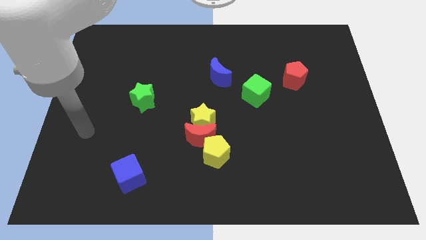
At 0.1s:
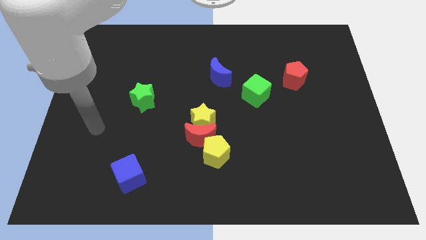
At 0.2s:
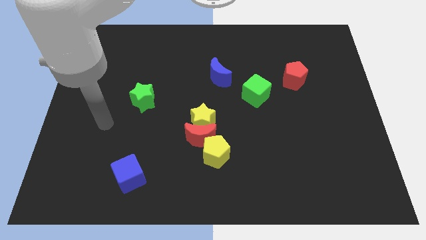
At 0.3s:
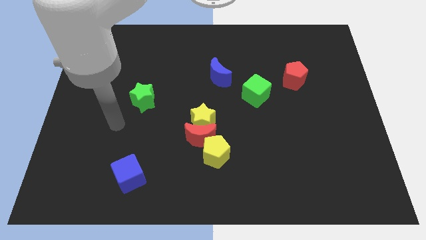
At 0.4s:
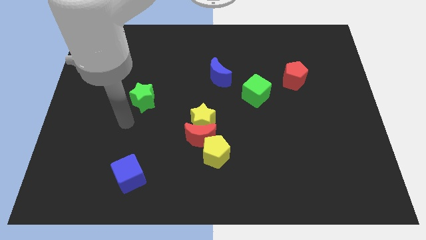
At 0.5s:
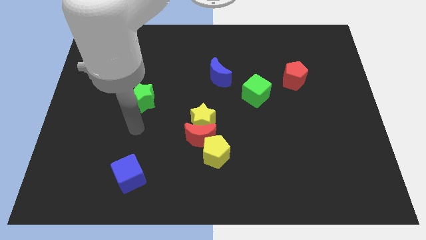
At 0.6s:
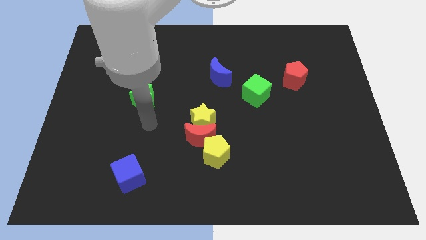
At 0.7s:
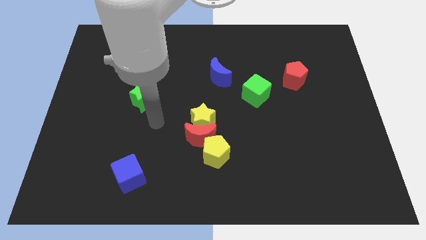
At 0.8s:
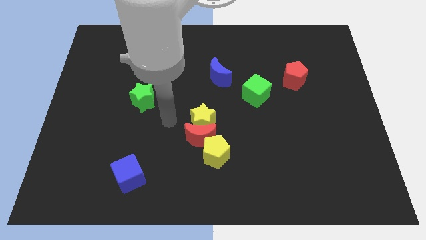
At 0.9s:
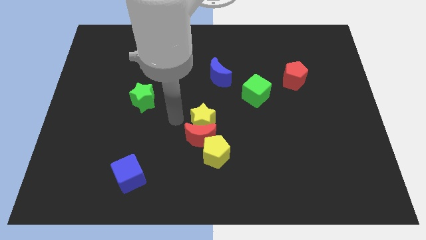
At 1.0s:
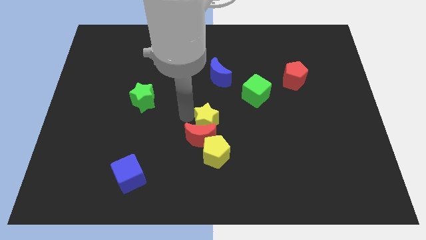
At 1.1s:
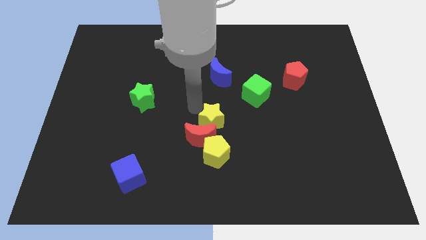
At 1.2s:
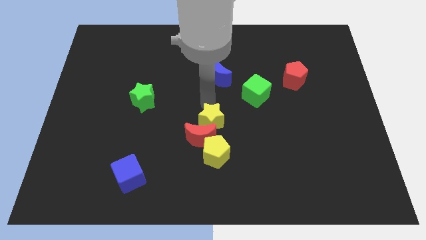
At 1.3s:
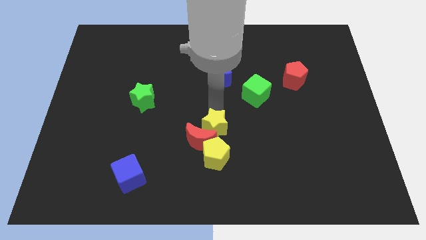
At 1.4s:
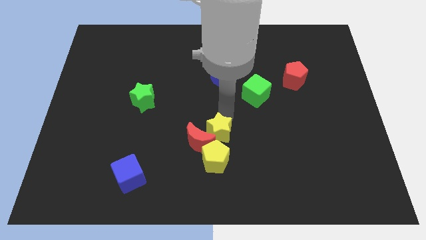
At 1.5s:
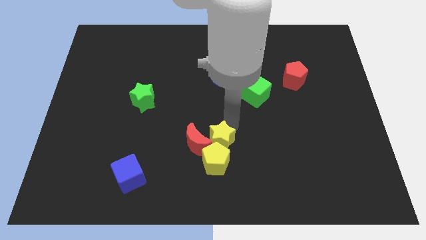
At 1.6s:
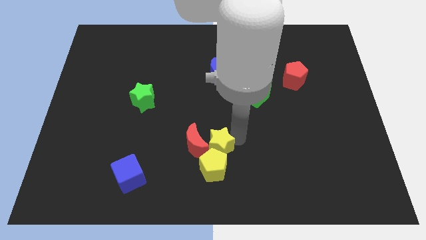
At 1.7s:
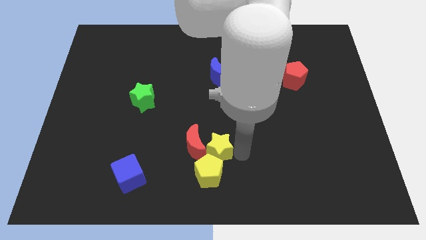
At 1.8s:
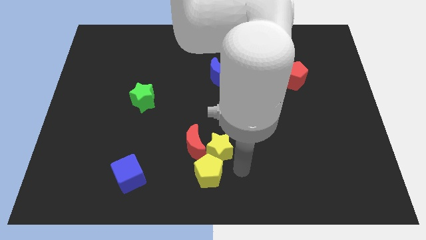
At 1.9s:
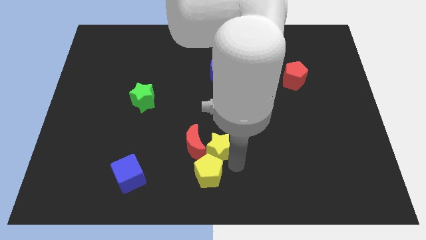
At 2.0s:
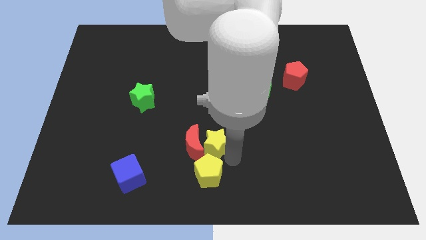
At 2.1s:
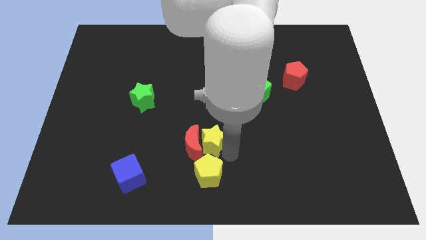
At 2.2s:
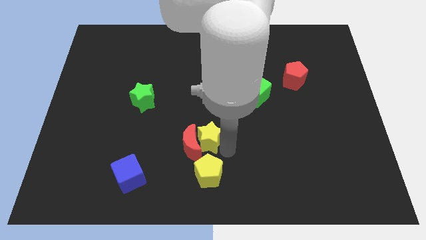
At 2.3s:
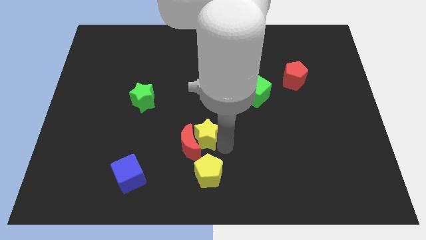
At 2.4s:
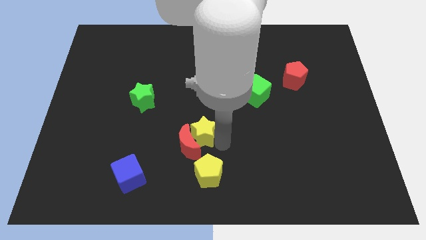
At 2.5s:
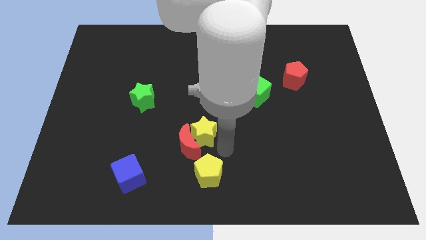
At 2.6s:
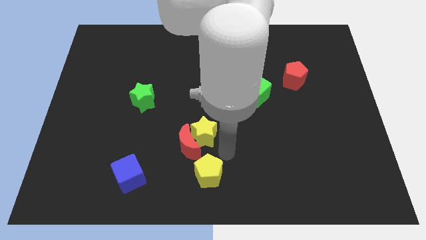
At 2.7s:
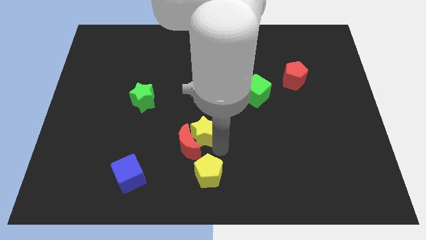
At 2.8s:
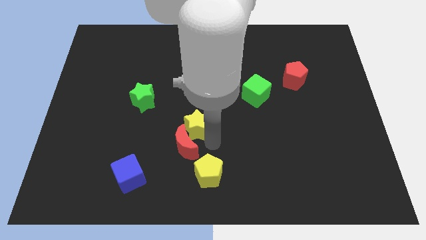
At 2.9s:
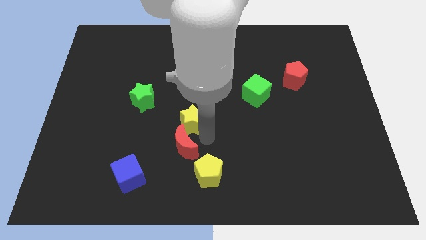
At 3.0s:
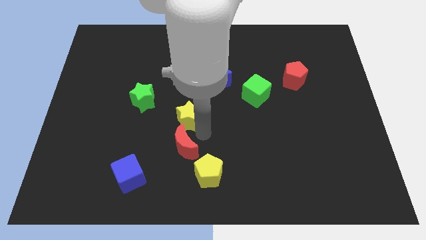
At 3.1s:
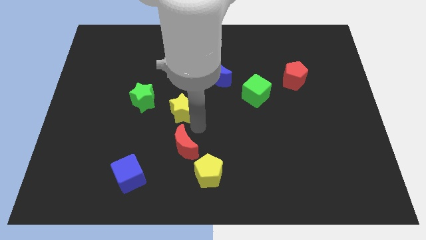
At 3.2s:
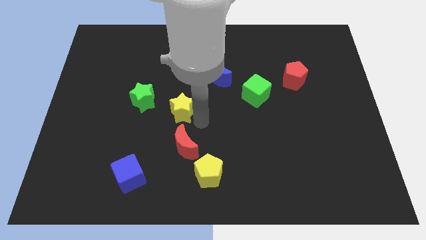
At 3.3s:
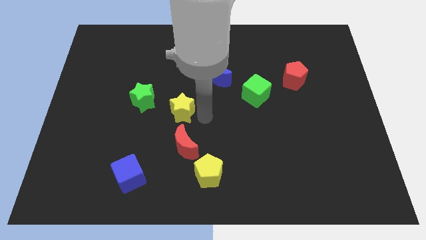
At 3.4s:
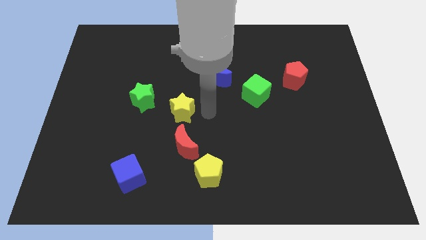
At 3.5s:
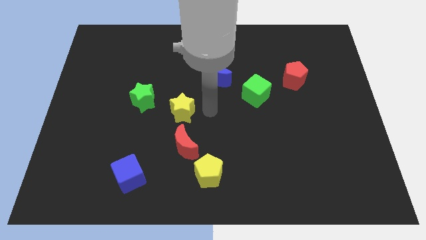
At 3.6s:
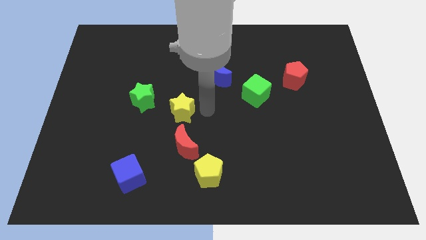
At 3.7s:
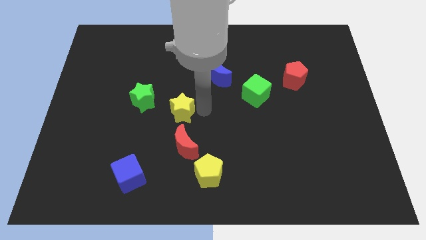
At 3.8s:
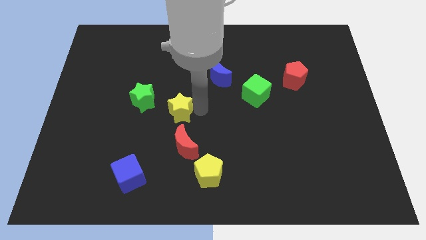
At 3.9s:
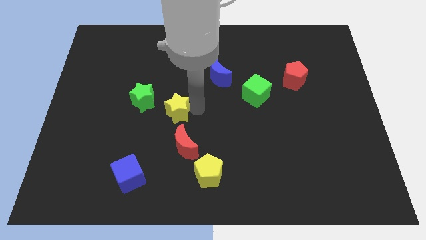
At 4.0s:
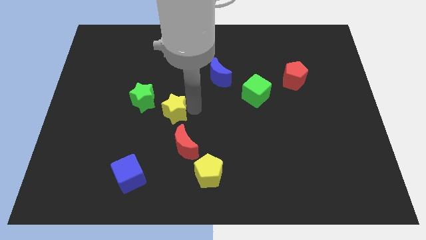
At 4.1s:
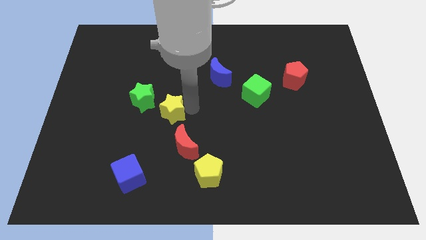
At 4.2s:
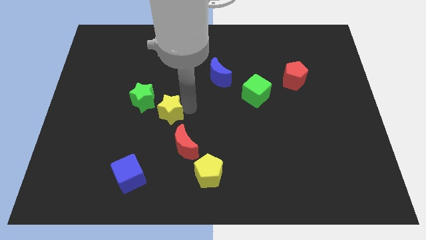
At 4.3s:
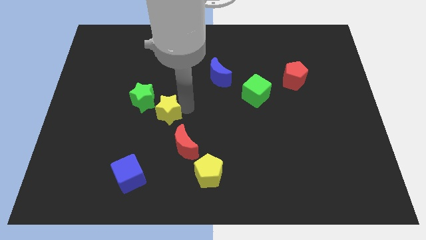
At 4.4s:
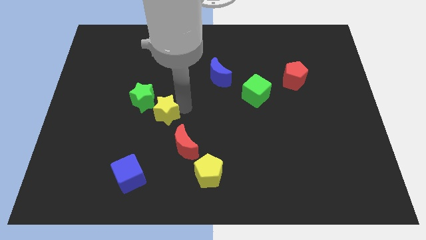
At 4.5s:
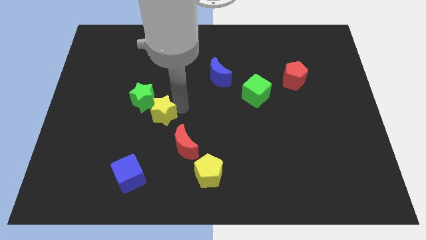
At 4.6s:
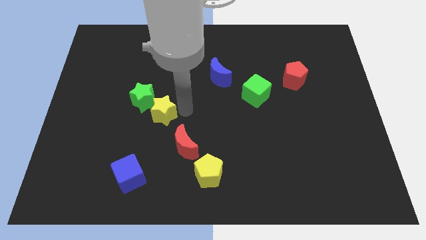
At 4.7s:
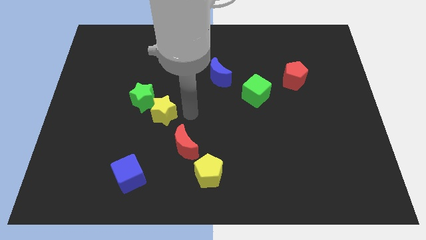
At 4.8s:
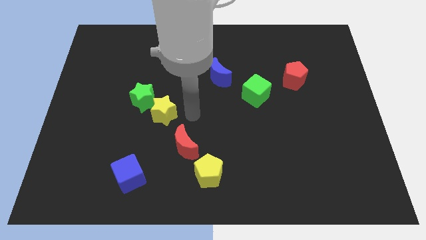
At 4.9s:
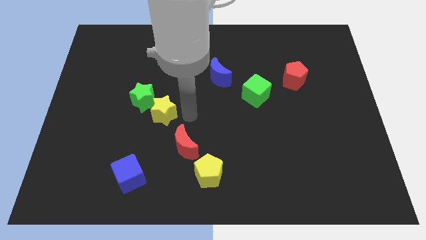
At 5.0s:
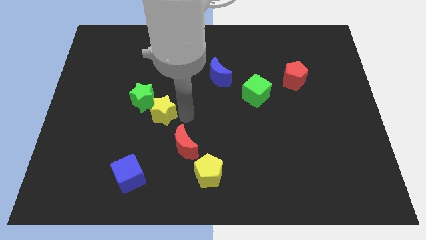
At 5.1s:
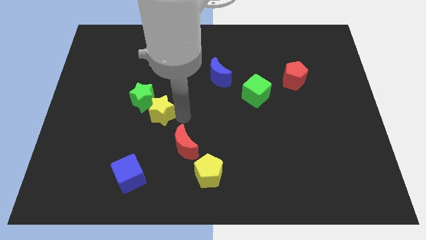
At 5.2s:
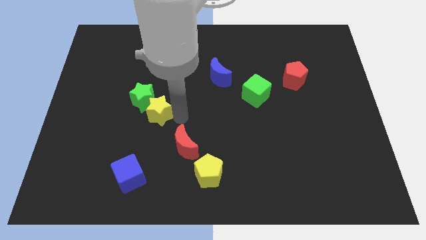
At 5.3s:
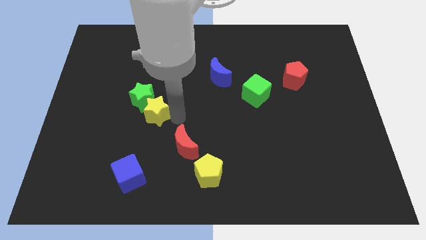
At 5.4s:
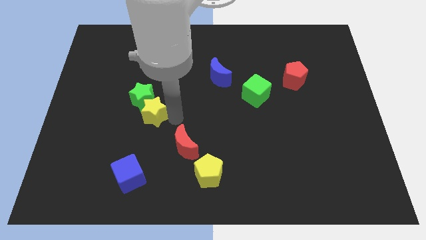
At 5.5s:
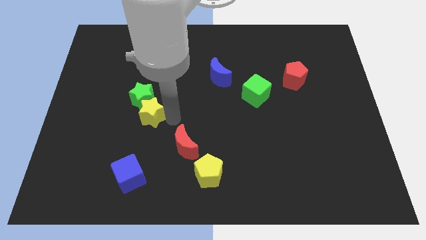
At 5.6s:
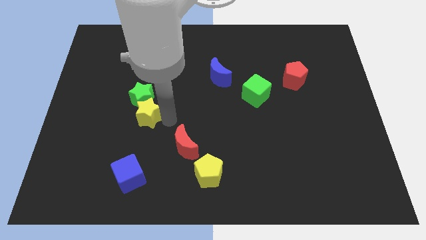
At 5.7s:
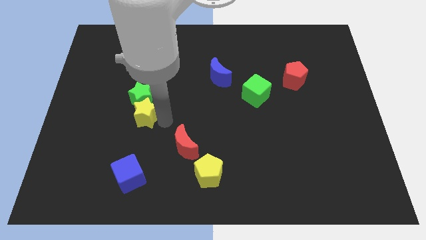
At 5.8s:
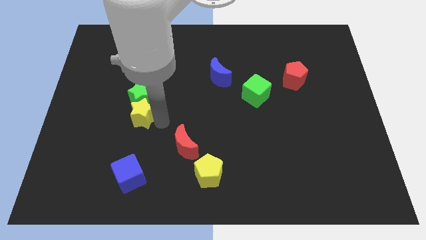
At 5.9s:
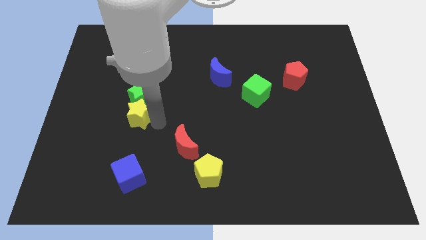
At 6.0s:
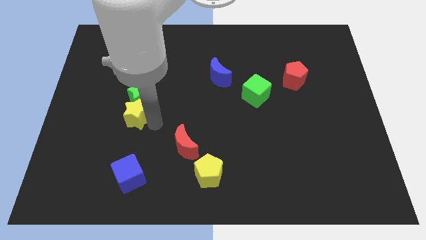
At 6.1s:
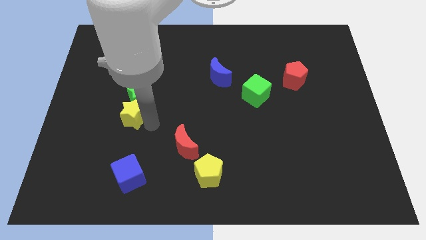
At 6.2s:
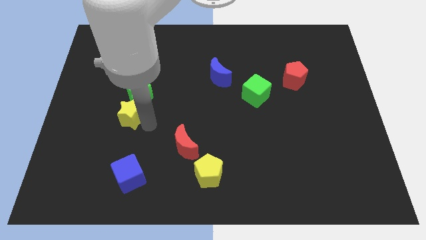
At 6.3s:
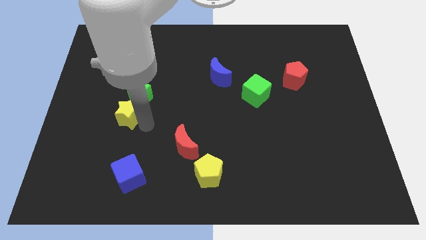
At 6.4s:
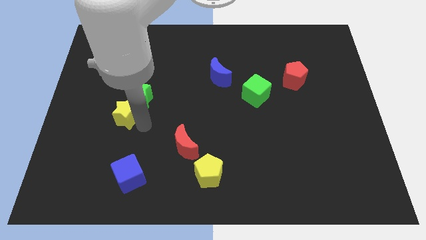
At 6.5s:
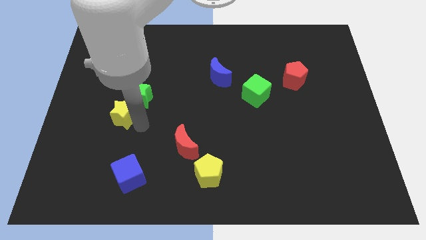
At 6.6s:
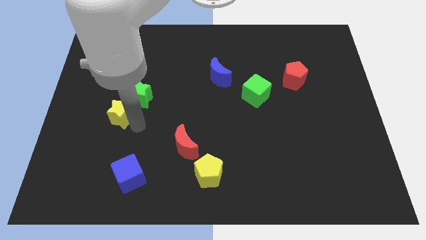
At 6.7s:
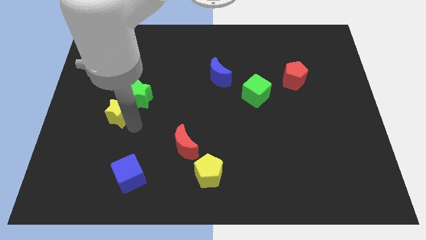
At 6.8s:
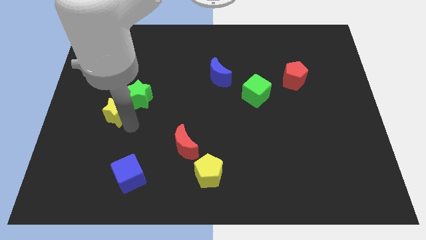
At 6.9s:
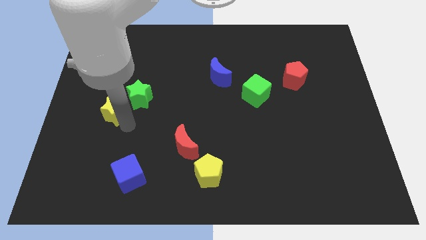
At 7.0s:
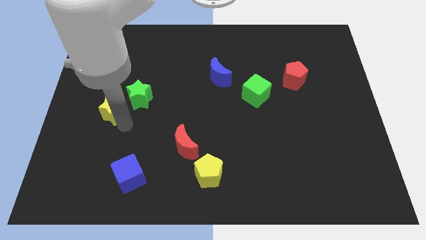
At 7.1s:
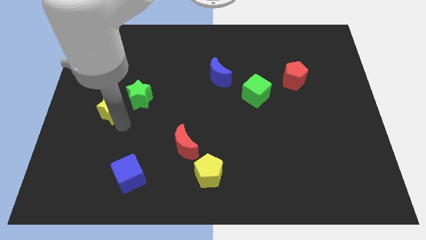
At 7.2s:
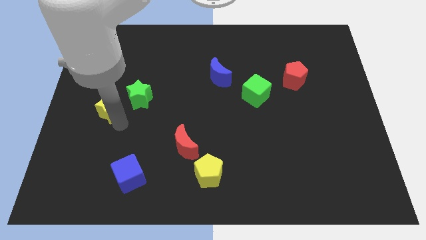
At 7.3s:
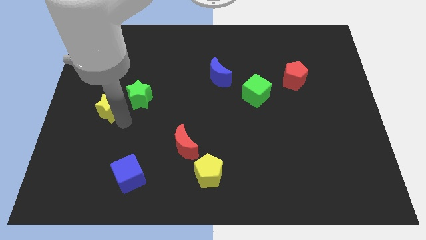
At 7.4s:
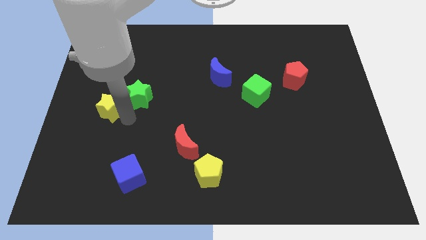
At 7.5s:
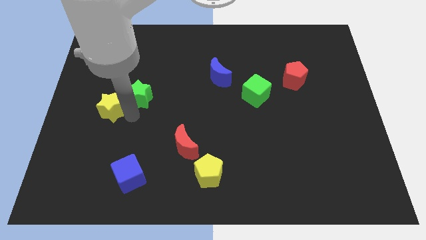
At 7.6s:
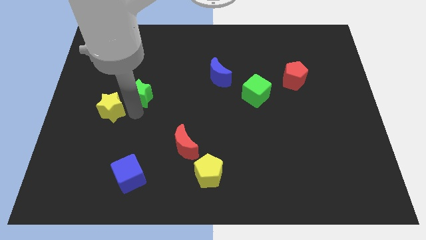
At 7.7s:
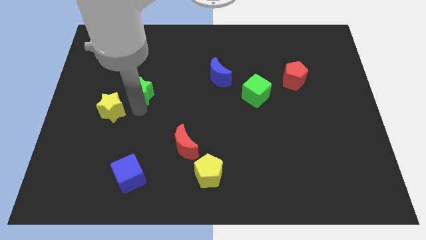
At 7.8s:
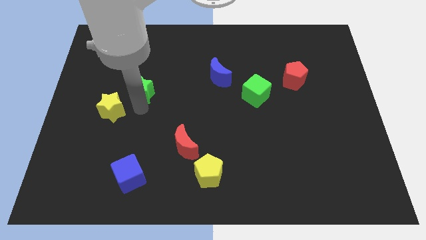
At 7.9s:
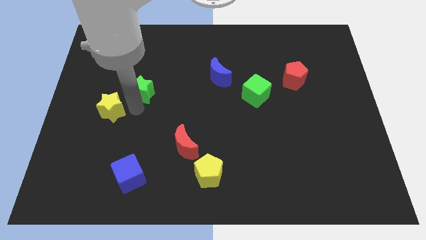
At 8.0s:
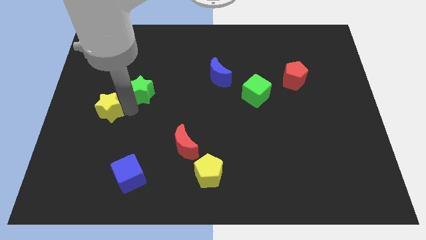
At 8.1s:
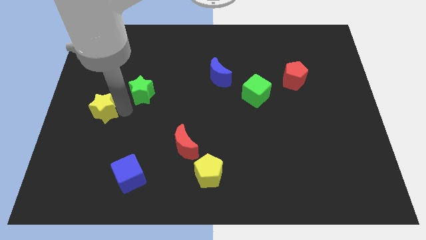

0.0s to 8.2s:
push the yellow star to the left side of the board
